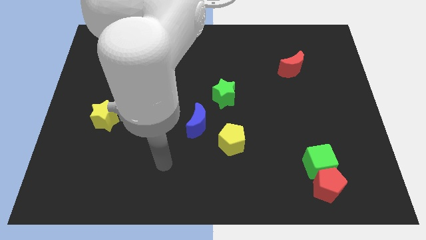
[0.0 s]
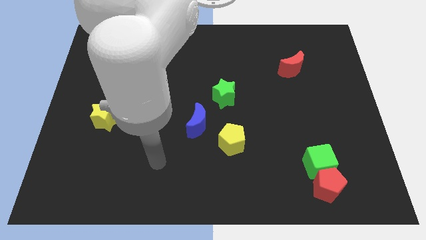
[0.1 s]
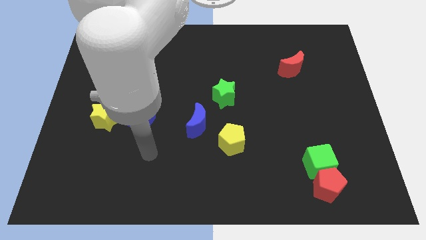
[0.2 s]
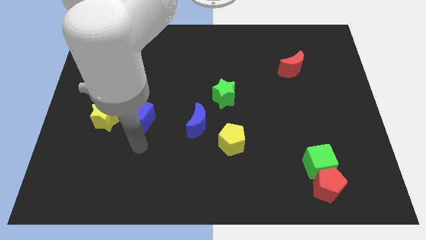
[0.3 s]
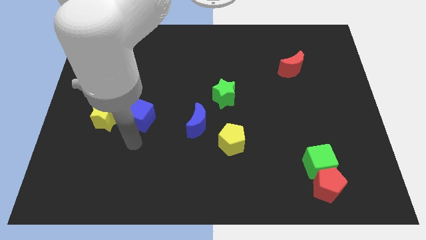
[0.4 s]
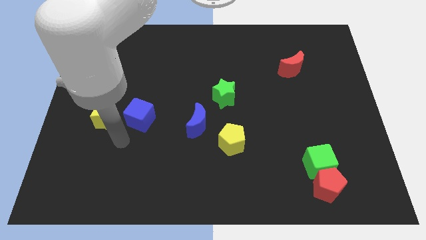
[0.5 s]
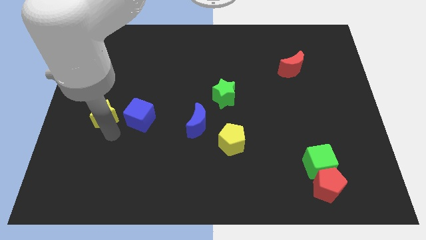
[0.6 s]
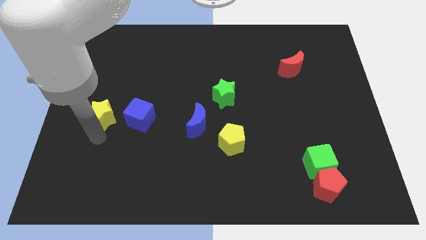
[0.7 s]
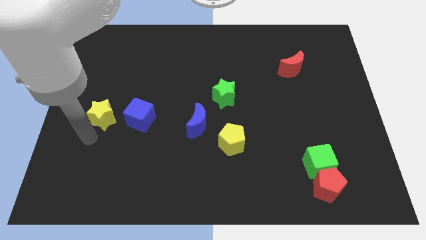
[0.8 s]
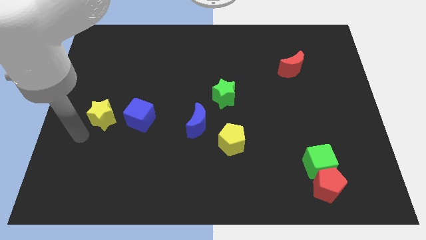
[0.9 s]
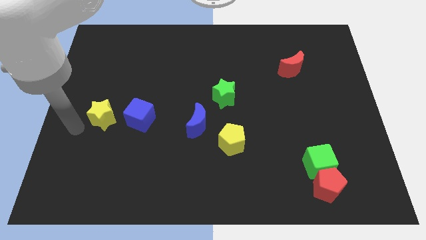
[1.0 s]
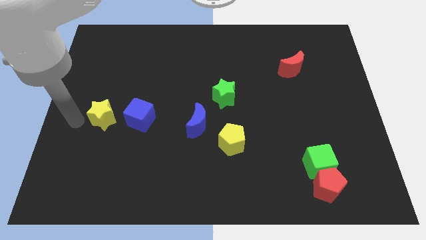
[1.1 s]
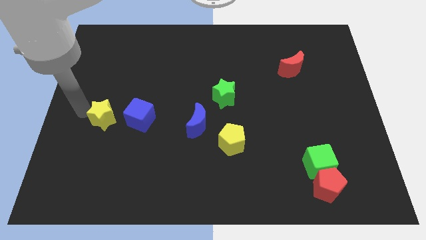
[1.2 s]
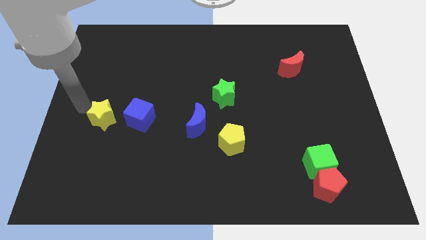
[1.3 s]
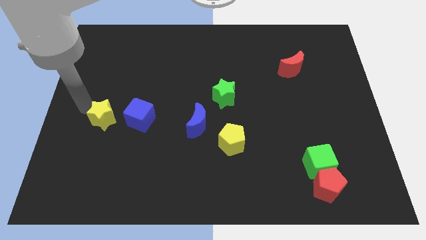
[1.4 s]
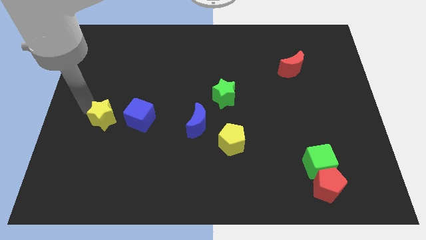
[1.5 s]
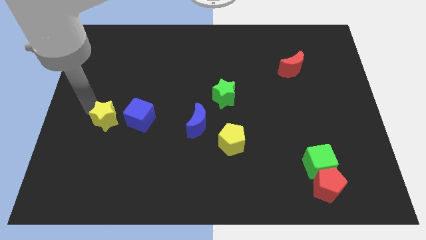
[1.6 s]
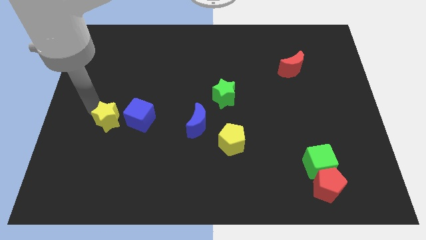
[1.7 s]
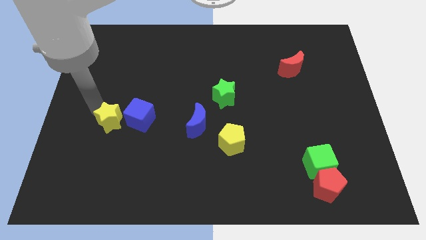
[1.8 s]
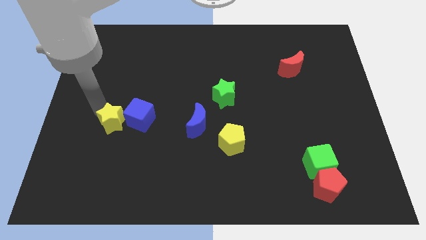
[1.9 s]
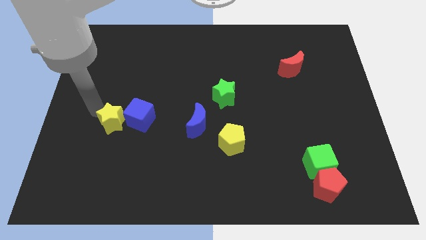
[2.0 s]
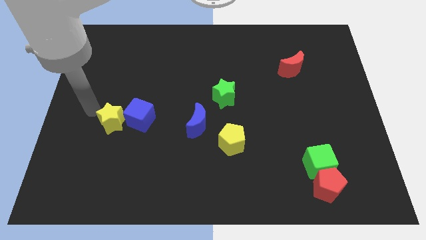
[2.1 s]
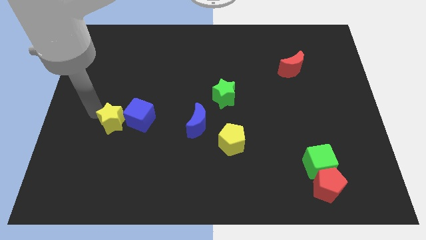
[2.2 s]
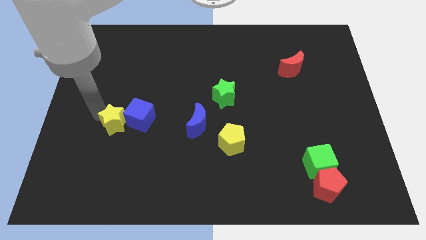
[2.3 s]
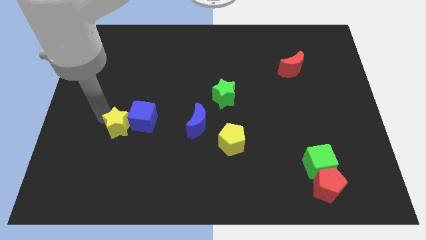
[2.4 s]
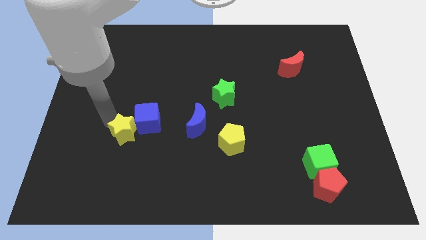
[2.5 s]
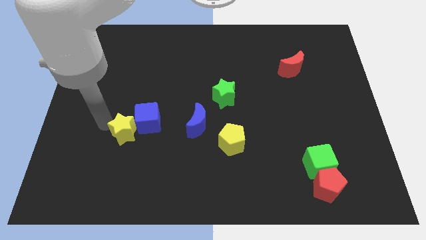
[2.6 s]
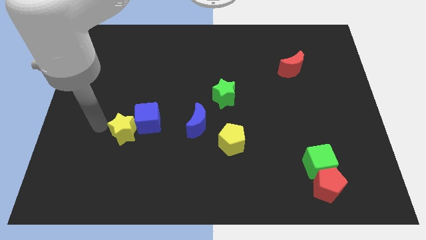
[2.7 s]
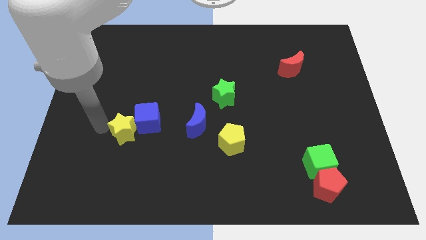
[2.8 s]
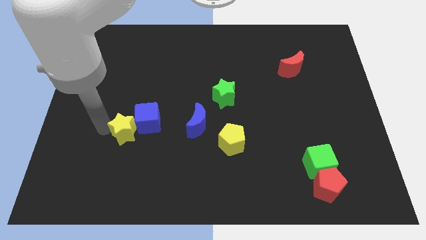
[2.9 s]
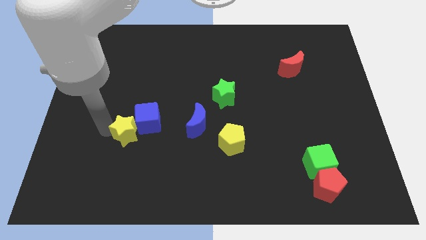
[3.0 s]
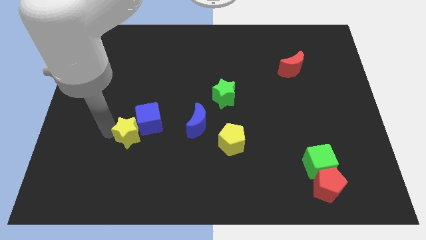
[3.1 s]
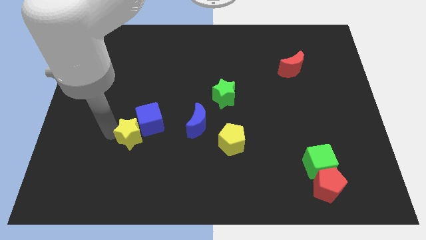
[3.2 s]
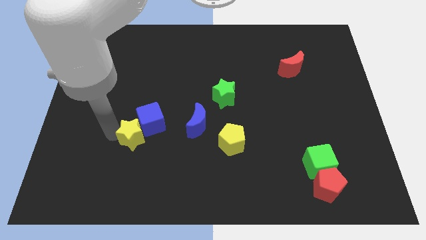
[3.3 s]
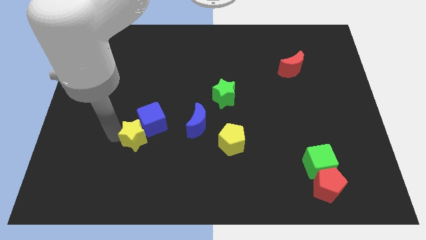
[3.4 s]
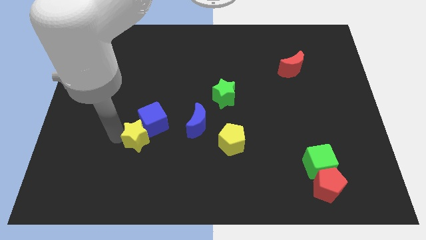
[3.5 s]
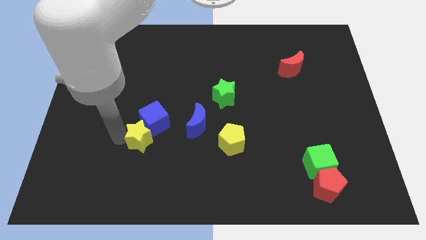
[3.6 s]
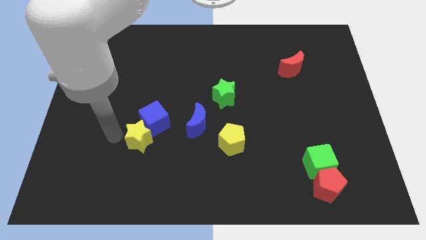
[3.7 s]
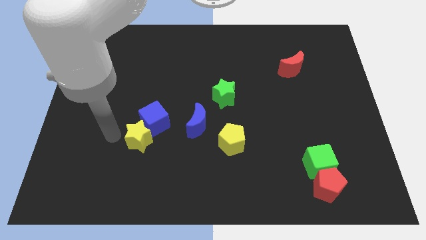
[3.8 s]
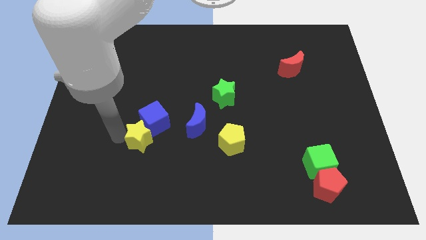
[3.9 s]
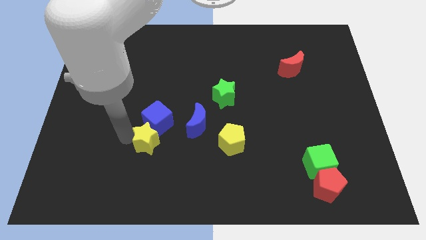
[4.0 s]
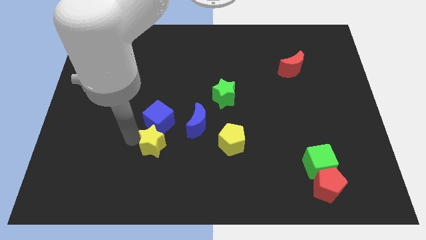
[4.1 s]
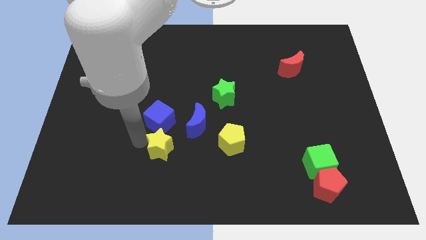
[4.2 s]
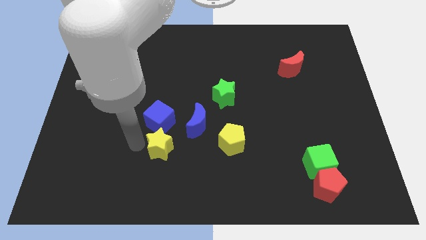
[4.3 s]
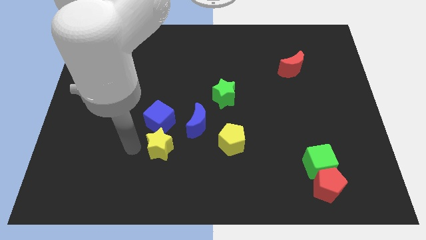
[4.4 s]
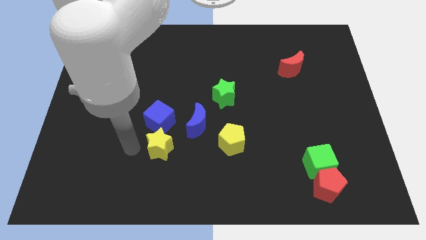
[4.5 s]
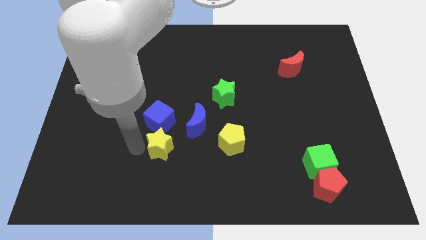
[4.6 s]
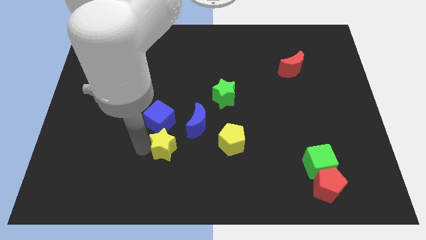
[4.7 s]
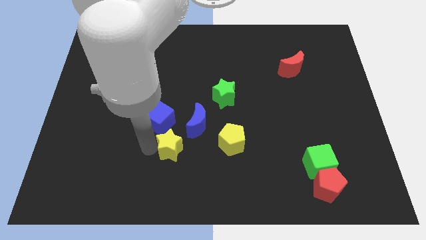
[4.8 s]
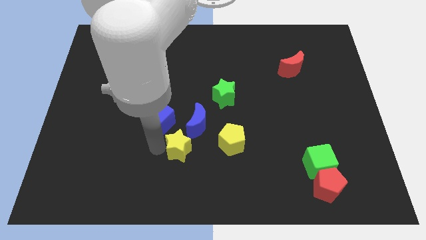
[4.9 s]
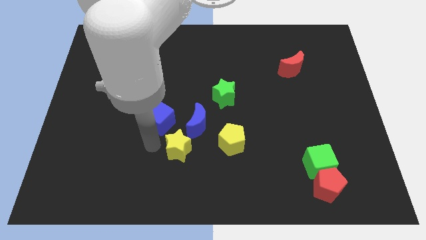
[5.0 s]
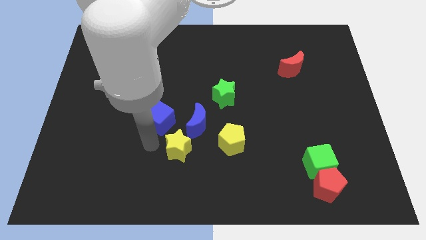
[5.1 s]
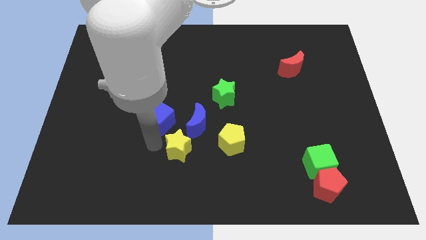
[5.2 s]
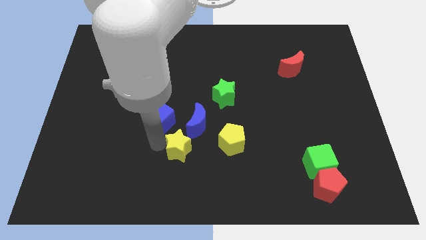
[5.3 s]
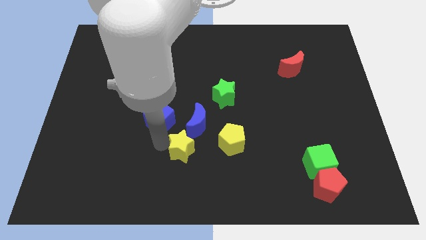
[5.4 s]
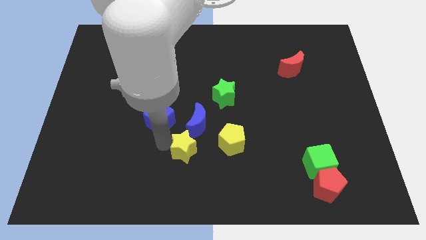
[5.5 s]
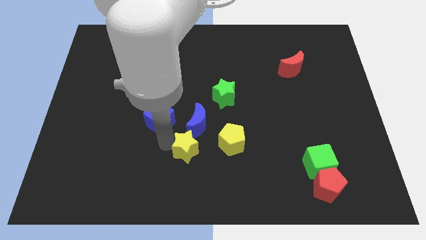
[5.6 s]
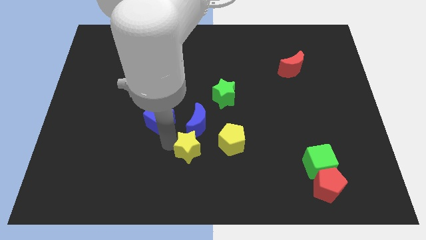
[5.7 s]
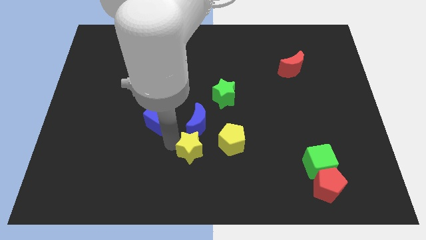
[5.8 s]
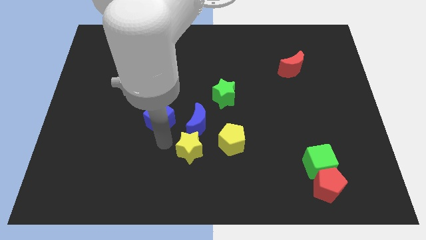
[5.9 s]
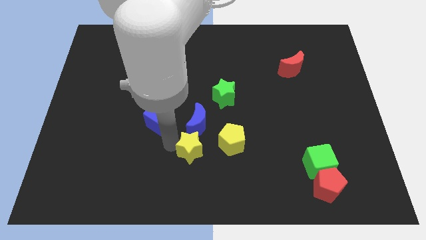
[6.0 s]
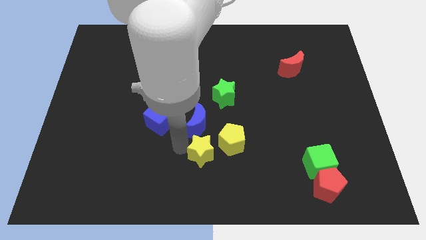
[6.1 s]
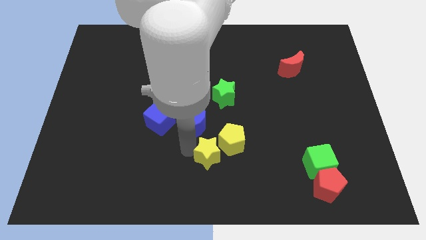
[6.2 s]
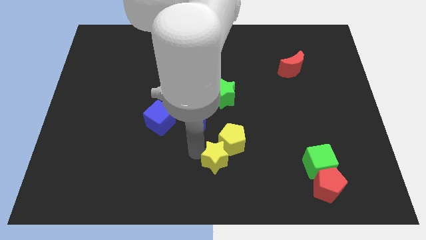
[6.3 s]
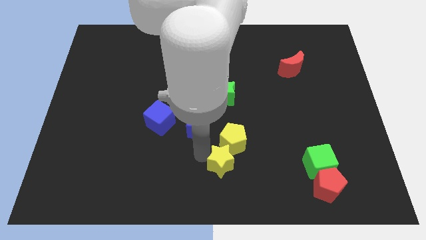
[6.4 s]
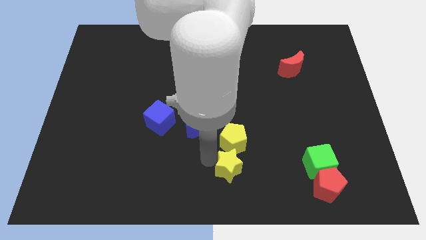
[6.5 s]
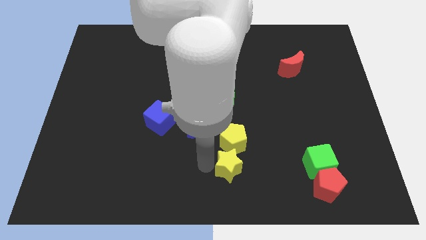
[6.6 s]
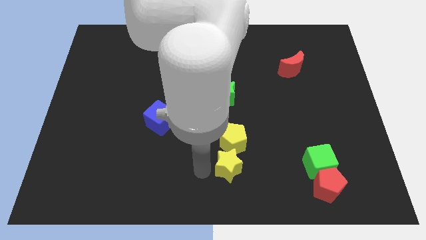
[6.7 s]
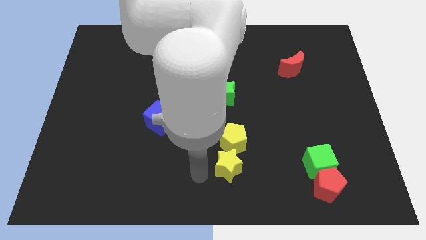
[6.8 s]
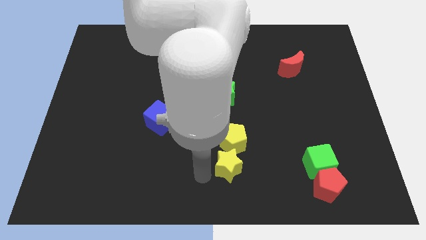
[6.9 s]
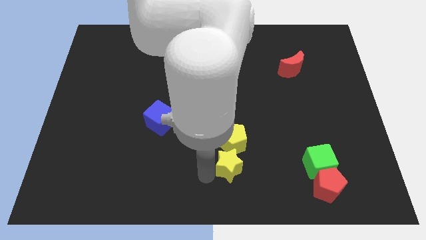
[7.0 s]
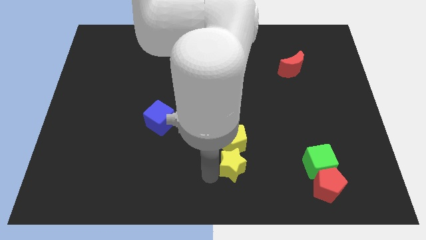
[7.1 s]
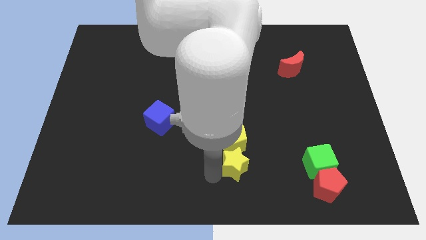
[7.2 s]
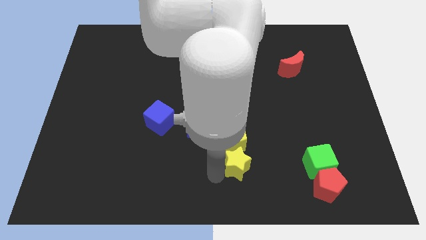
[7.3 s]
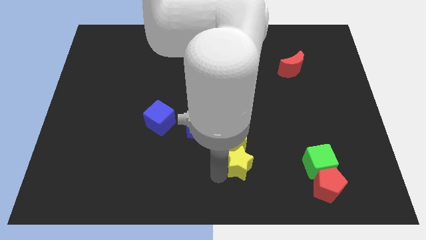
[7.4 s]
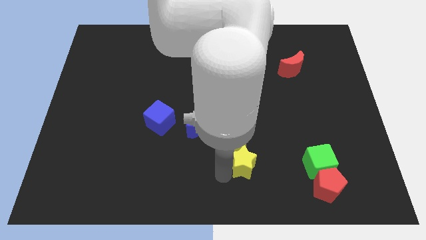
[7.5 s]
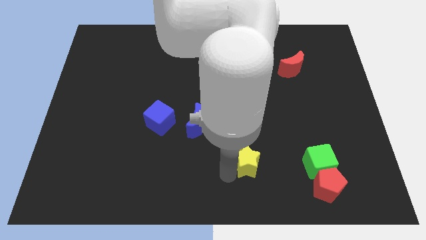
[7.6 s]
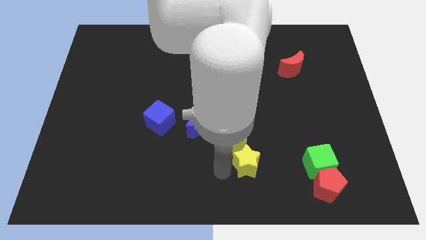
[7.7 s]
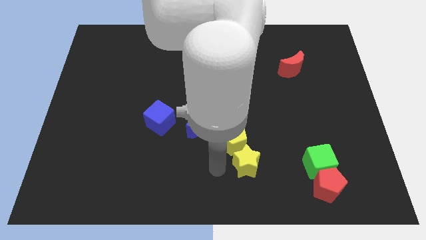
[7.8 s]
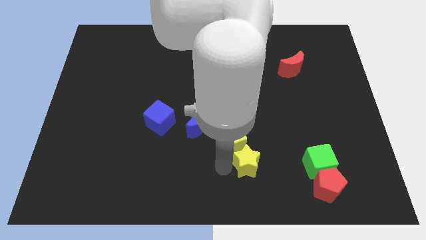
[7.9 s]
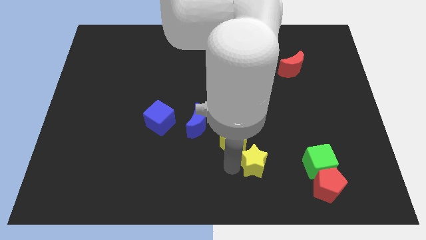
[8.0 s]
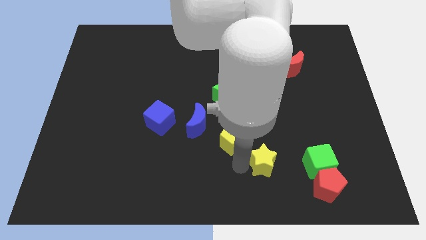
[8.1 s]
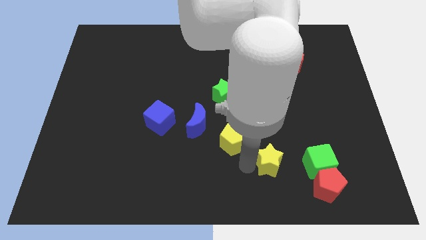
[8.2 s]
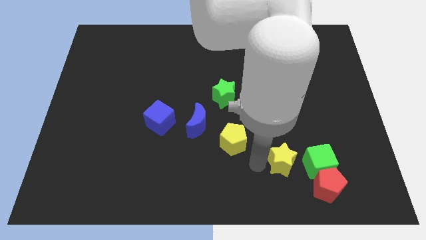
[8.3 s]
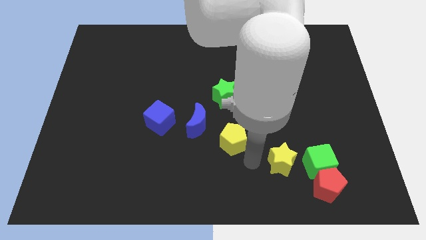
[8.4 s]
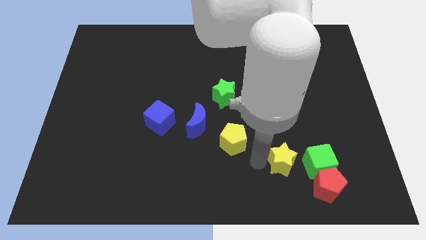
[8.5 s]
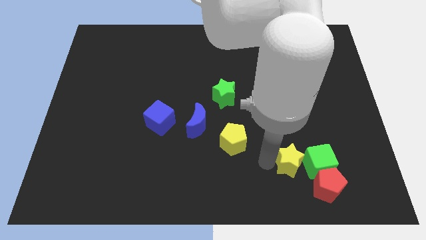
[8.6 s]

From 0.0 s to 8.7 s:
slide the yellow star to the green cube
